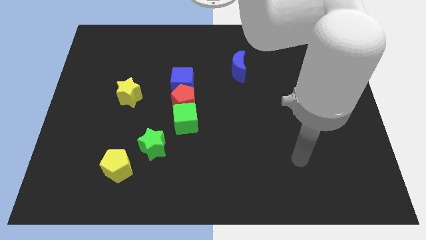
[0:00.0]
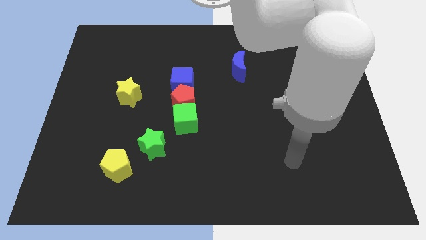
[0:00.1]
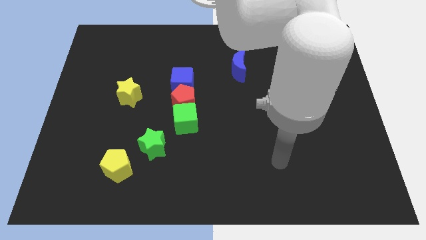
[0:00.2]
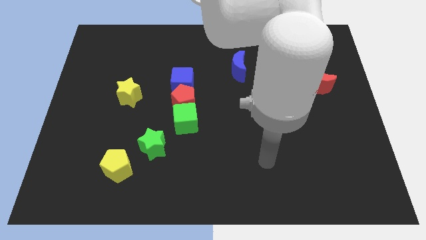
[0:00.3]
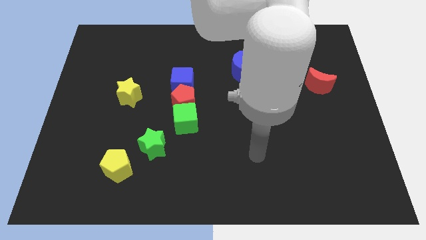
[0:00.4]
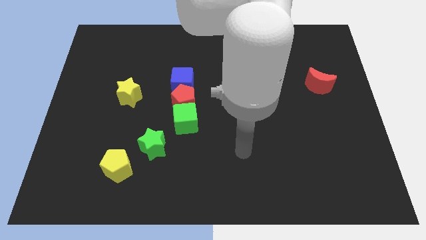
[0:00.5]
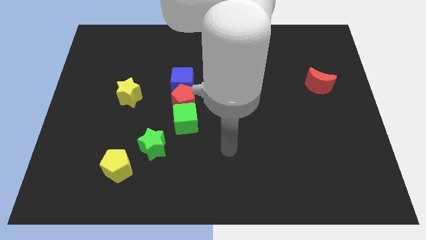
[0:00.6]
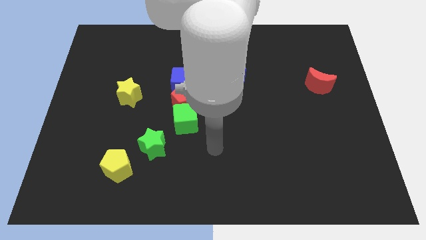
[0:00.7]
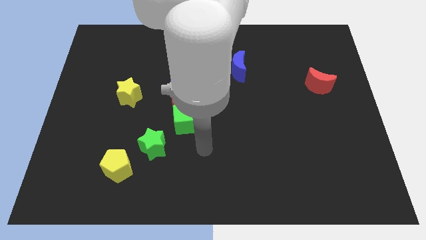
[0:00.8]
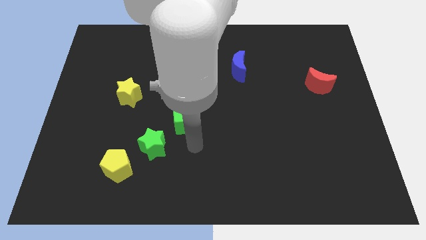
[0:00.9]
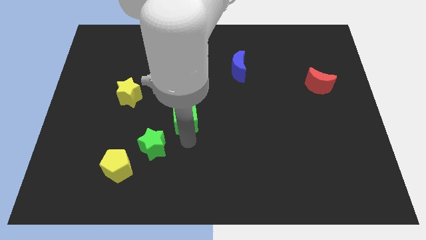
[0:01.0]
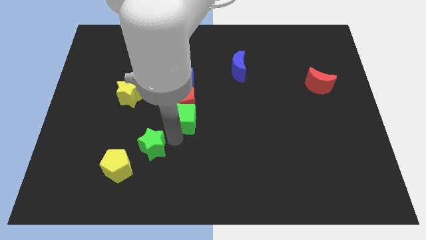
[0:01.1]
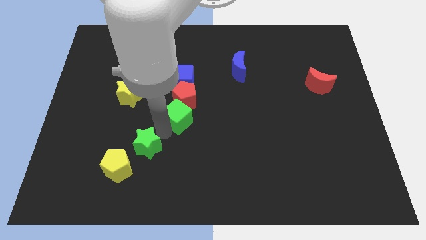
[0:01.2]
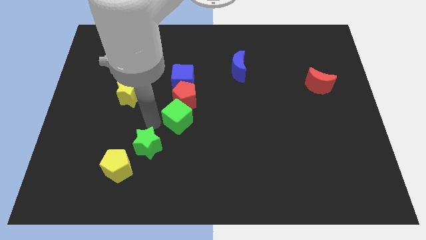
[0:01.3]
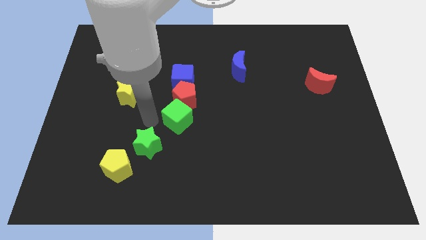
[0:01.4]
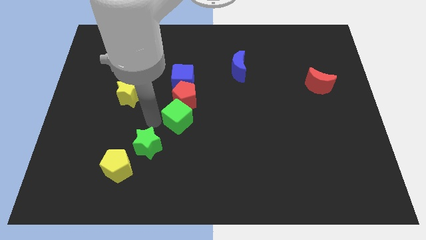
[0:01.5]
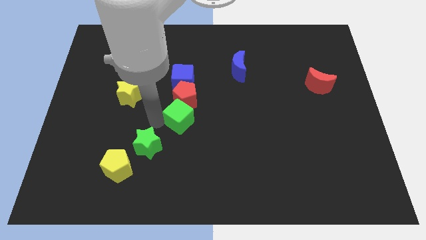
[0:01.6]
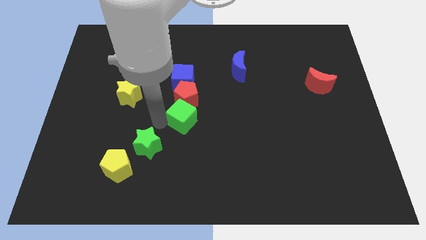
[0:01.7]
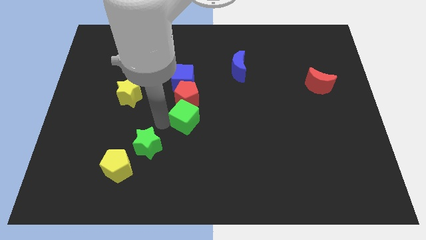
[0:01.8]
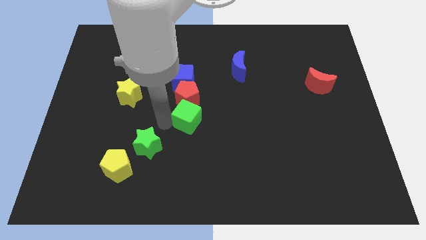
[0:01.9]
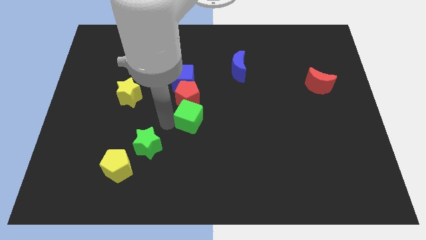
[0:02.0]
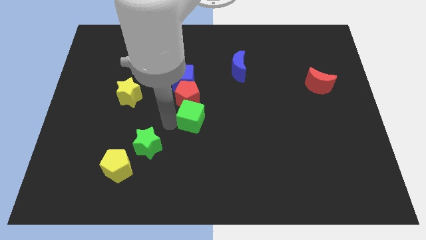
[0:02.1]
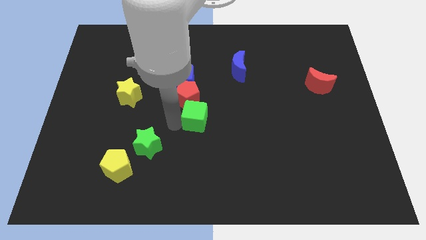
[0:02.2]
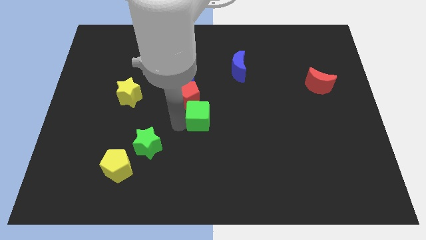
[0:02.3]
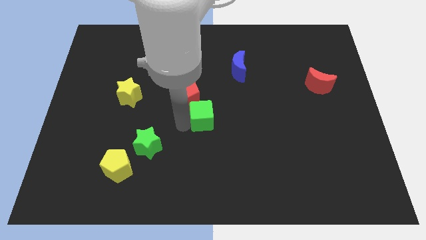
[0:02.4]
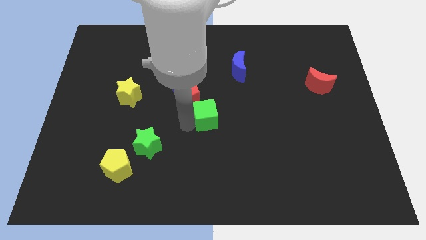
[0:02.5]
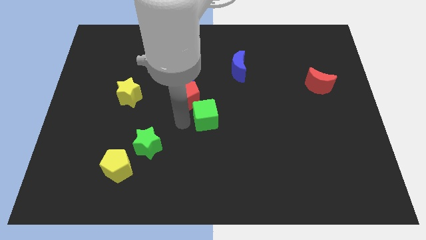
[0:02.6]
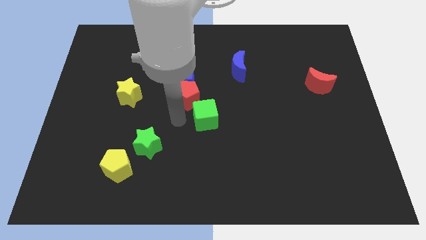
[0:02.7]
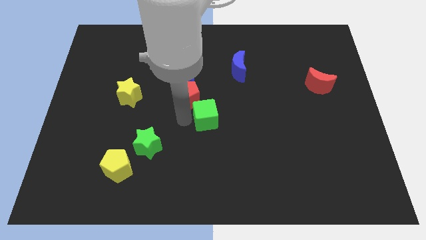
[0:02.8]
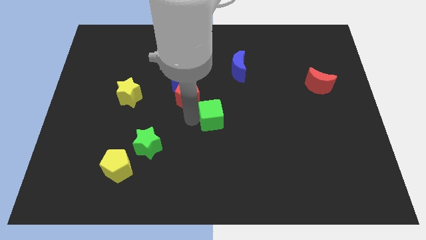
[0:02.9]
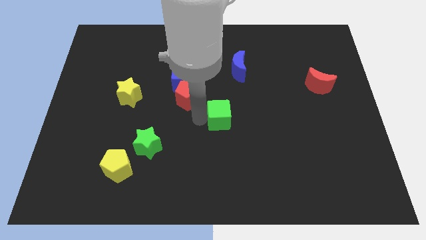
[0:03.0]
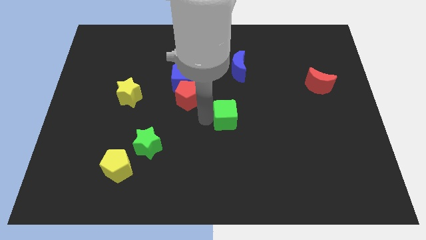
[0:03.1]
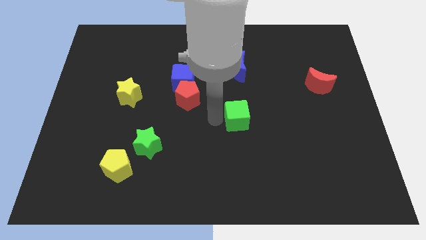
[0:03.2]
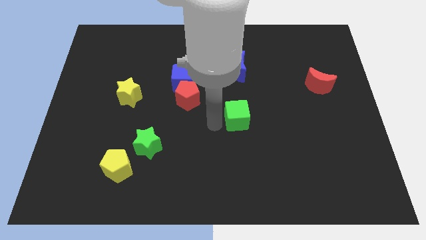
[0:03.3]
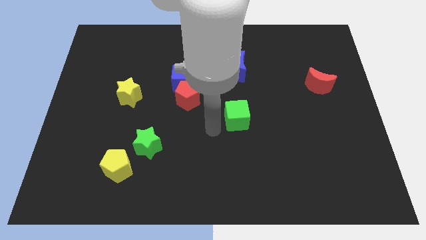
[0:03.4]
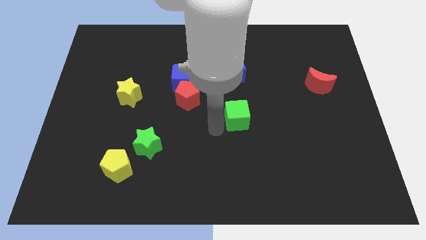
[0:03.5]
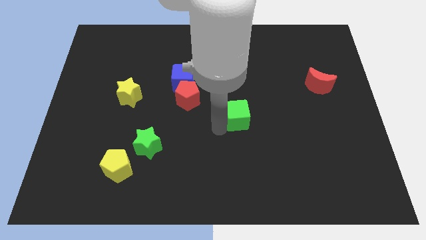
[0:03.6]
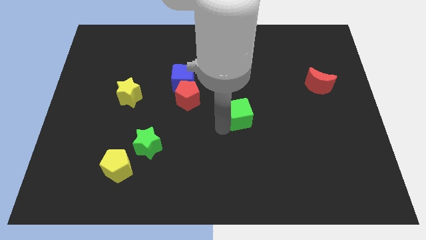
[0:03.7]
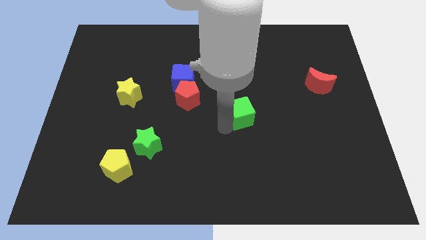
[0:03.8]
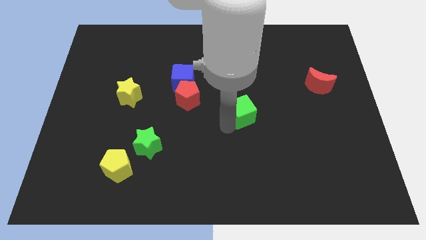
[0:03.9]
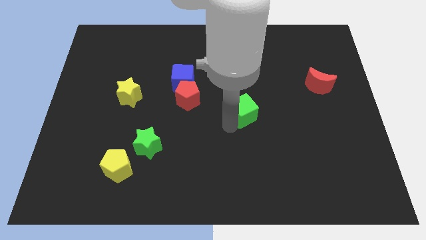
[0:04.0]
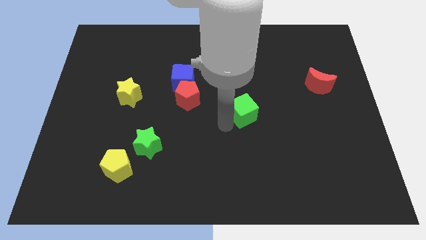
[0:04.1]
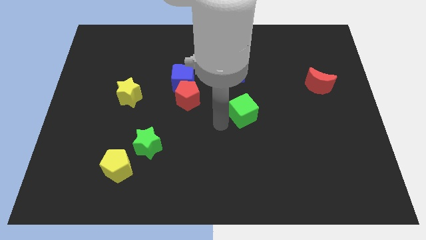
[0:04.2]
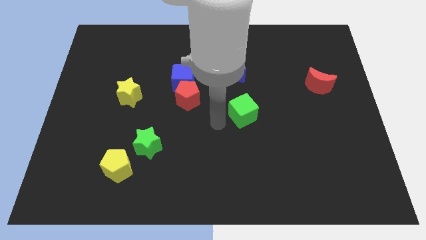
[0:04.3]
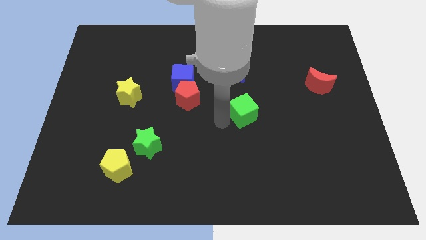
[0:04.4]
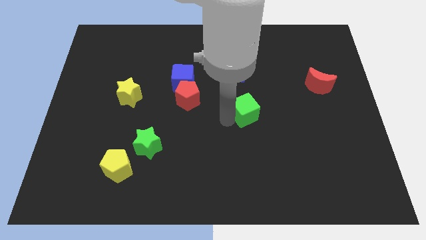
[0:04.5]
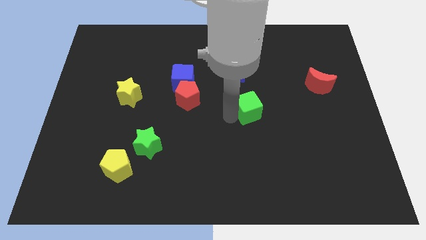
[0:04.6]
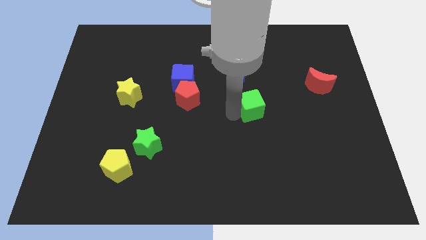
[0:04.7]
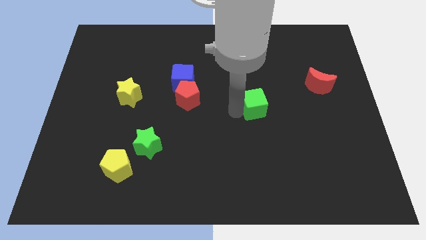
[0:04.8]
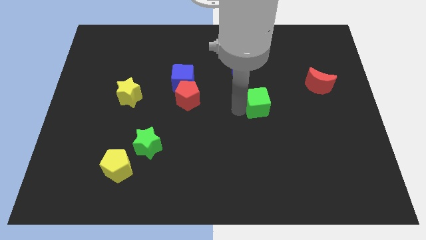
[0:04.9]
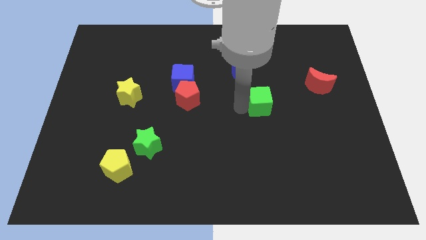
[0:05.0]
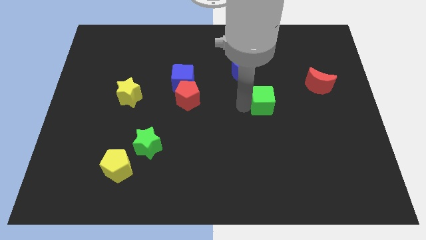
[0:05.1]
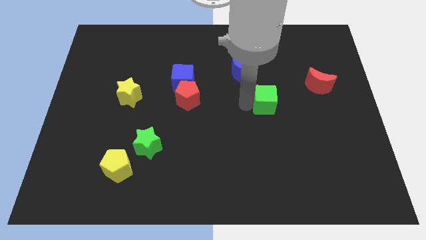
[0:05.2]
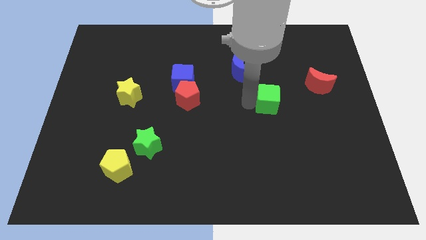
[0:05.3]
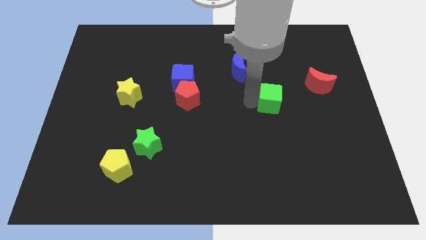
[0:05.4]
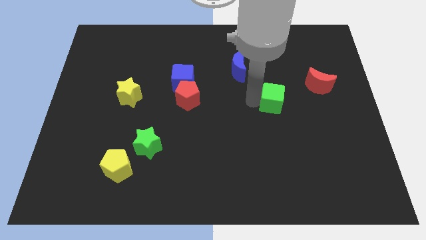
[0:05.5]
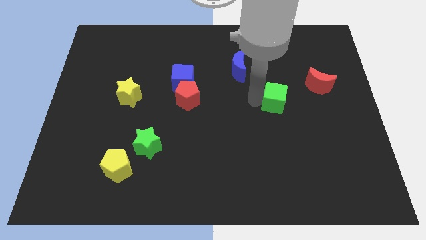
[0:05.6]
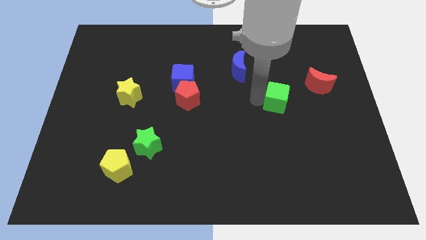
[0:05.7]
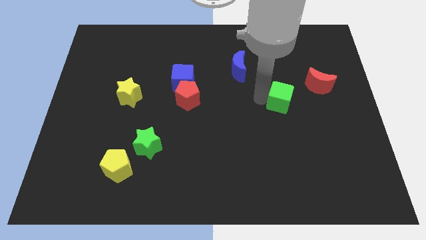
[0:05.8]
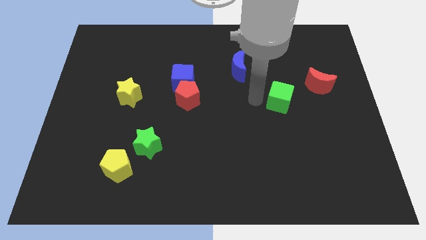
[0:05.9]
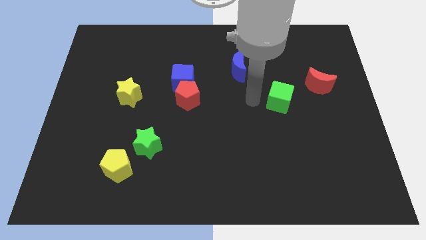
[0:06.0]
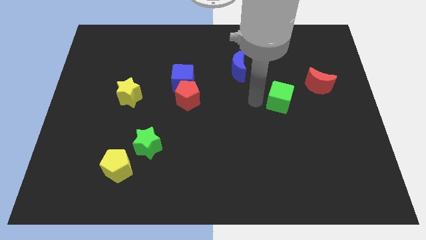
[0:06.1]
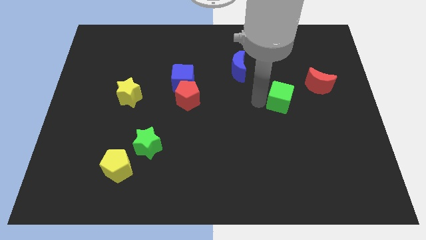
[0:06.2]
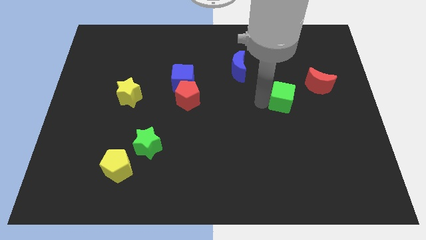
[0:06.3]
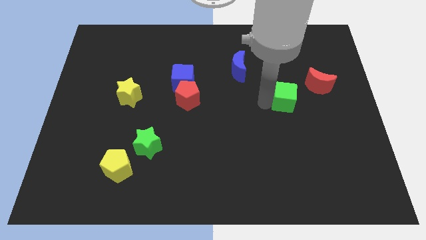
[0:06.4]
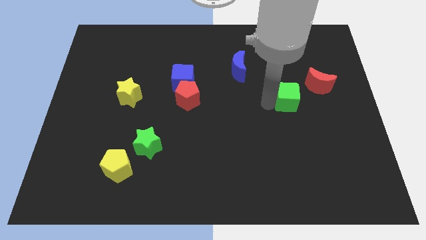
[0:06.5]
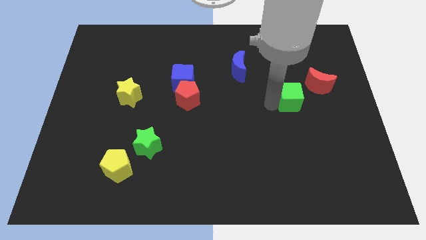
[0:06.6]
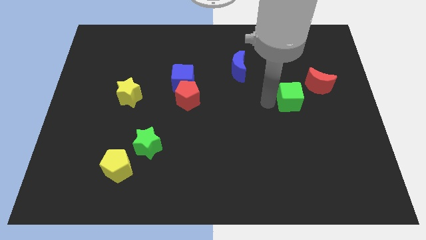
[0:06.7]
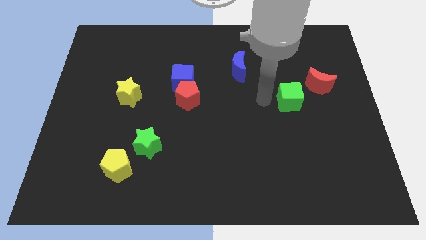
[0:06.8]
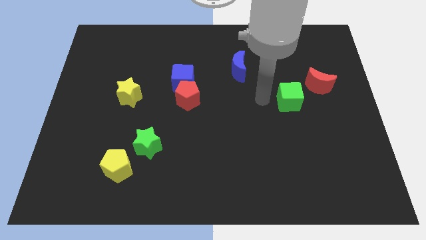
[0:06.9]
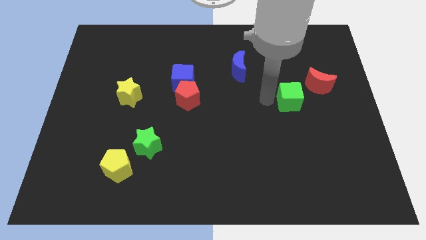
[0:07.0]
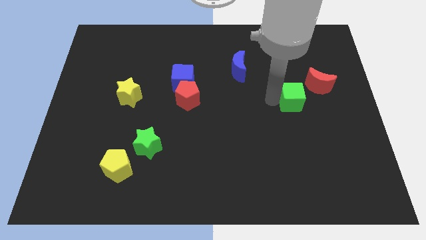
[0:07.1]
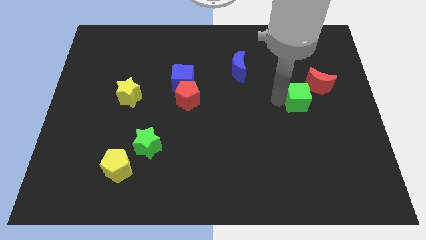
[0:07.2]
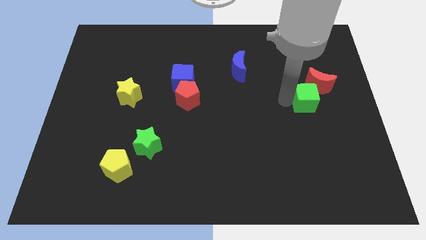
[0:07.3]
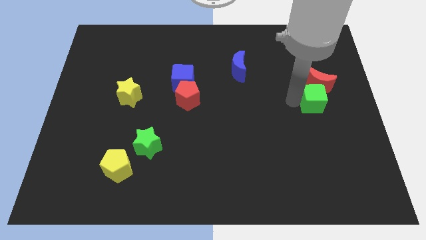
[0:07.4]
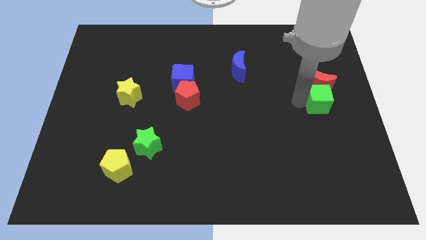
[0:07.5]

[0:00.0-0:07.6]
move the green cube to the right side of the board
